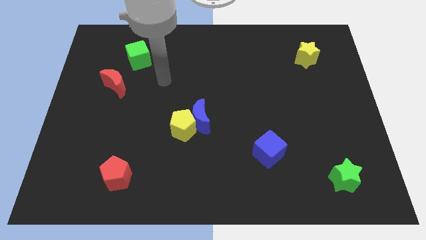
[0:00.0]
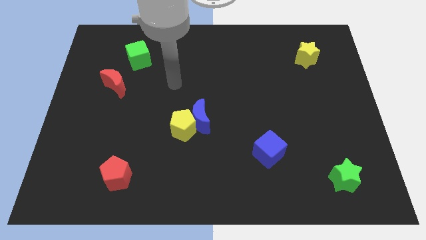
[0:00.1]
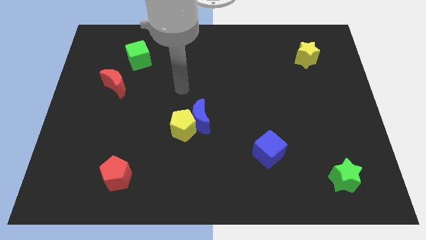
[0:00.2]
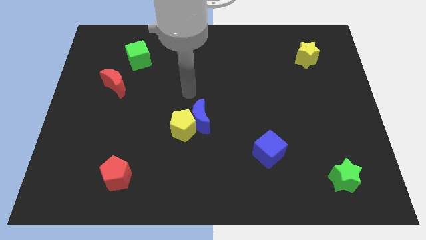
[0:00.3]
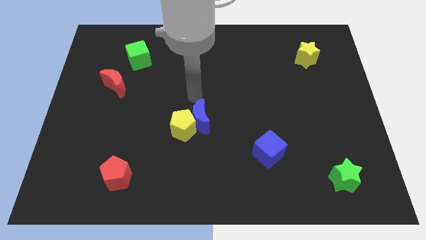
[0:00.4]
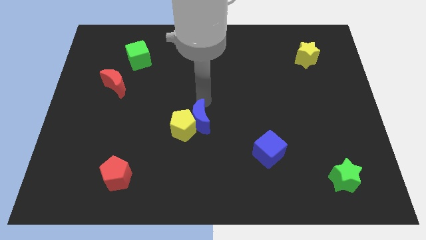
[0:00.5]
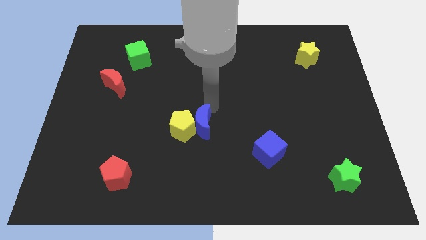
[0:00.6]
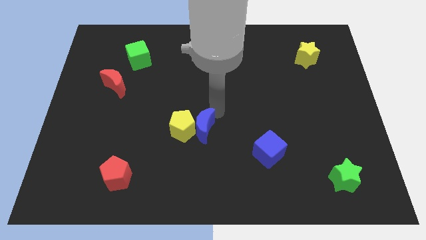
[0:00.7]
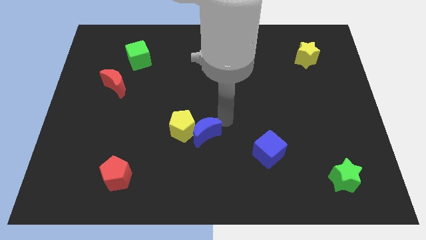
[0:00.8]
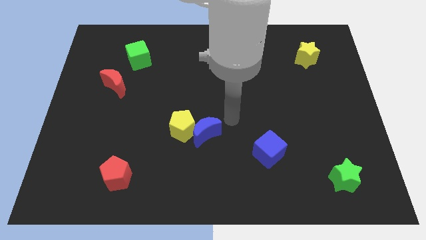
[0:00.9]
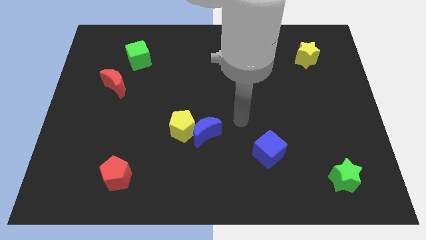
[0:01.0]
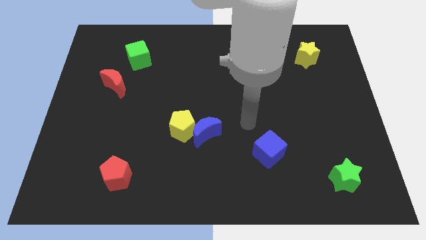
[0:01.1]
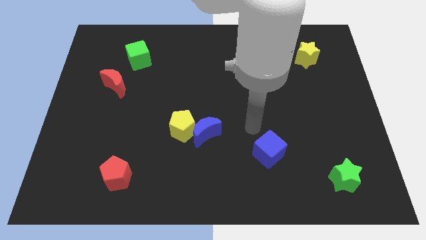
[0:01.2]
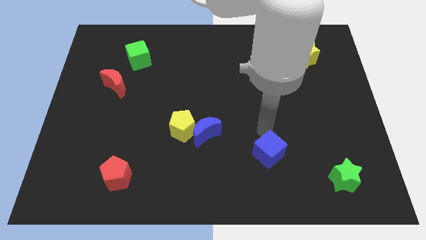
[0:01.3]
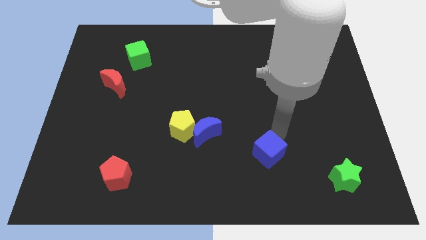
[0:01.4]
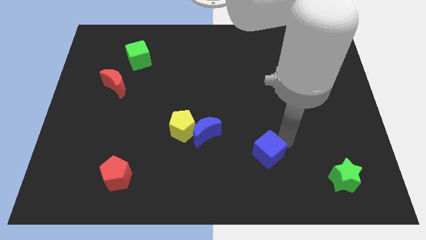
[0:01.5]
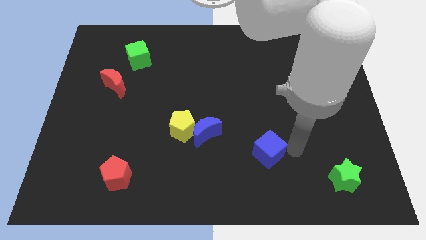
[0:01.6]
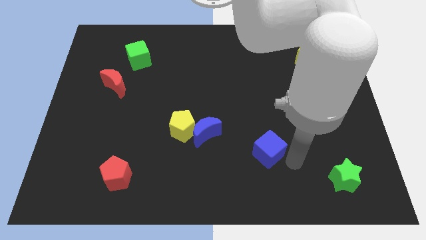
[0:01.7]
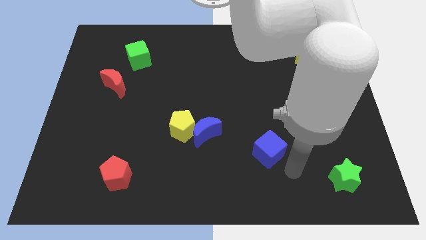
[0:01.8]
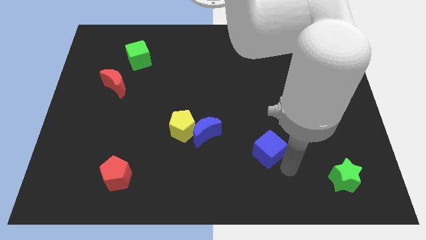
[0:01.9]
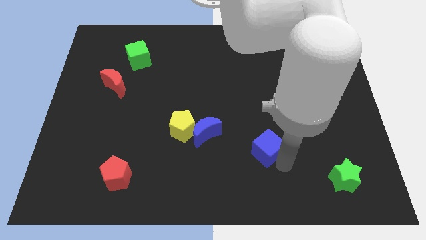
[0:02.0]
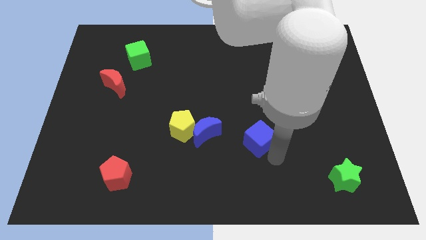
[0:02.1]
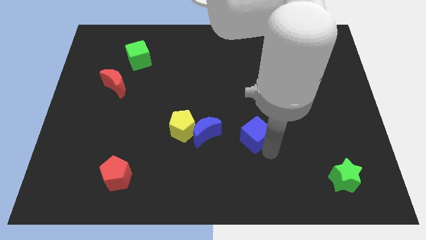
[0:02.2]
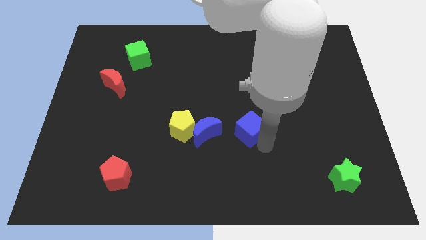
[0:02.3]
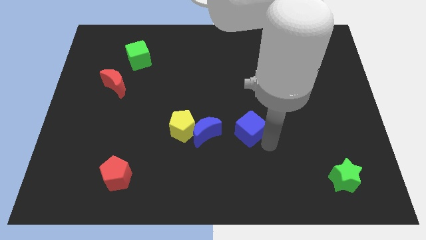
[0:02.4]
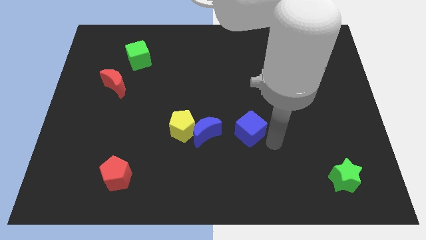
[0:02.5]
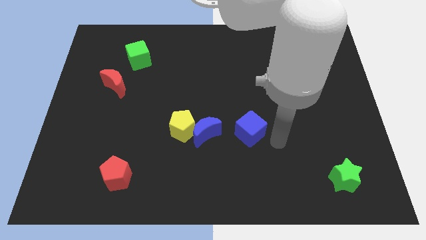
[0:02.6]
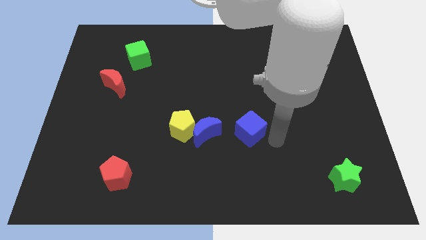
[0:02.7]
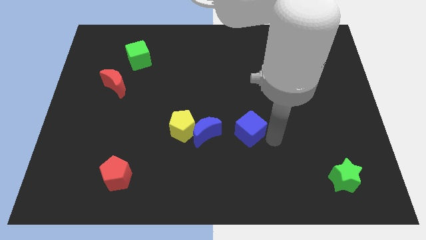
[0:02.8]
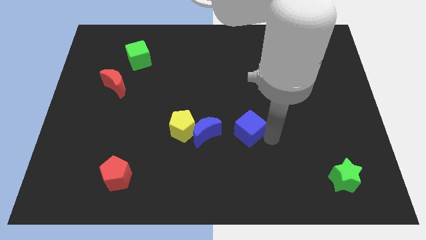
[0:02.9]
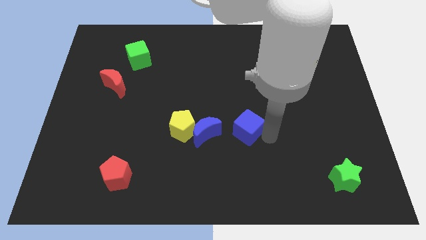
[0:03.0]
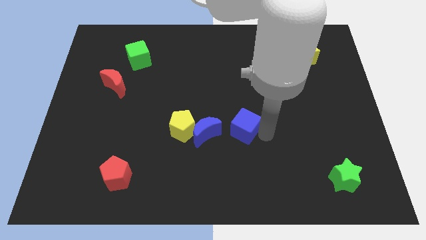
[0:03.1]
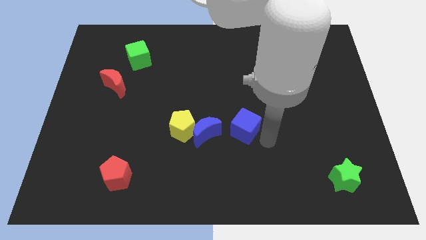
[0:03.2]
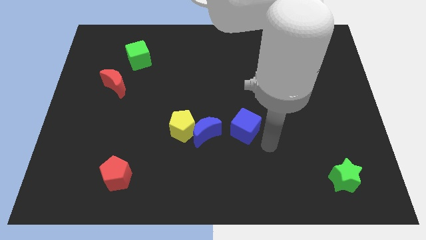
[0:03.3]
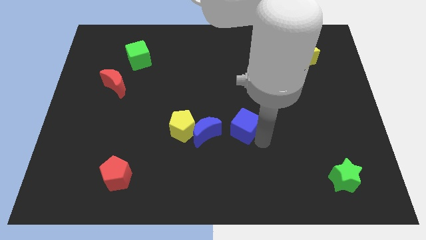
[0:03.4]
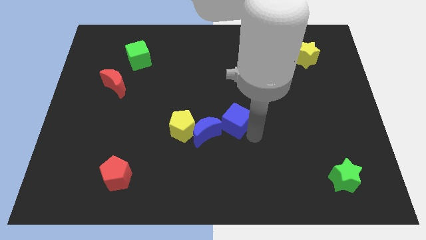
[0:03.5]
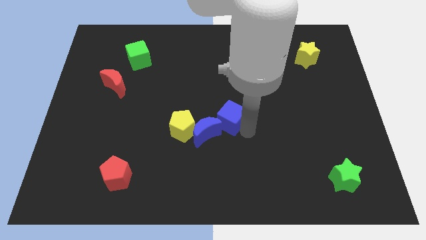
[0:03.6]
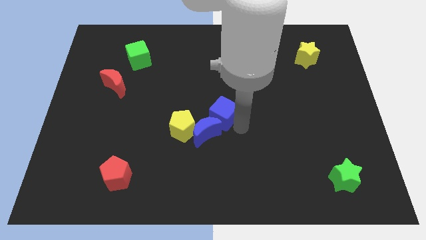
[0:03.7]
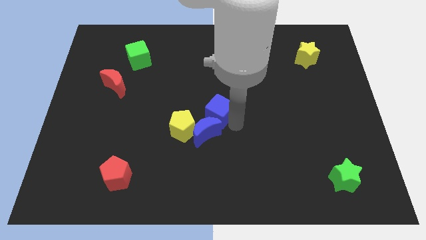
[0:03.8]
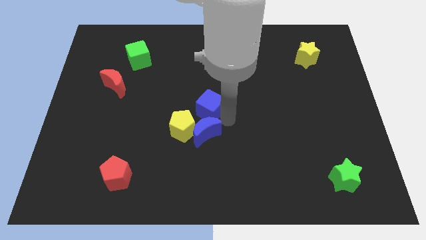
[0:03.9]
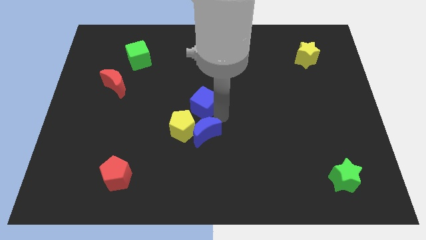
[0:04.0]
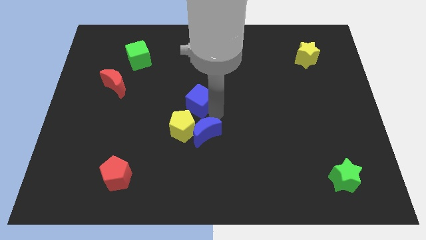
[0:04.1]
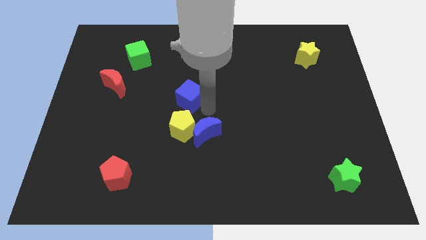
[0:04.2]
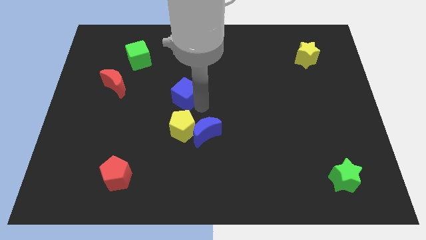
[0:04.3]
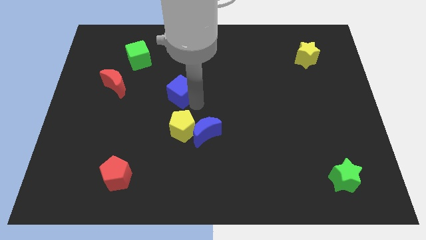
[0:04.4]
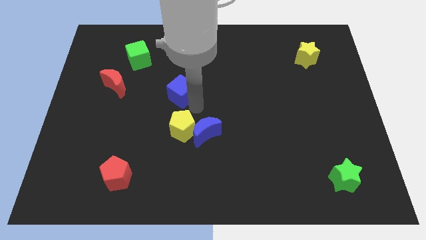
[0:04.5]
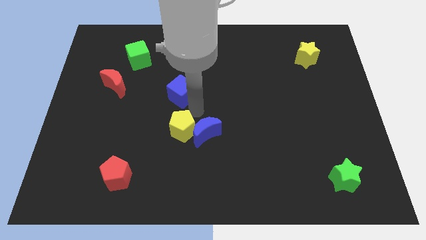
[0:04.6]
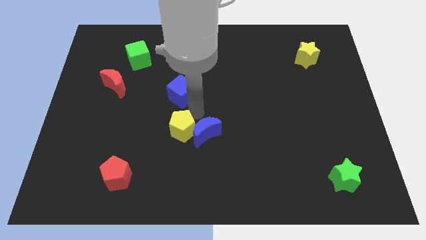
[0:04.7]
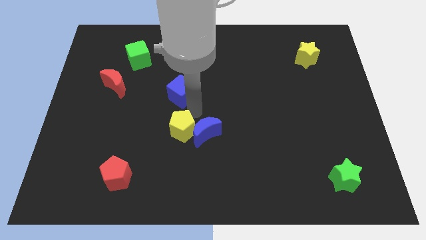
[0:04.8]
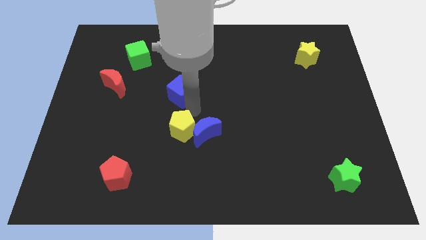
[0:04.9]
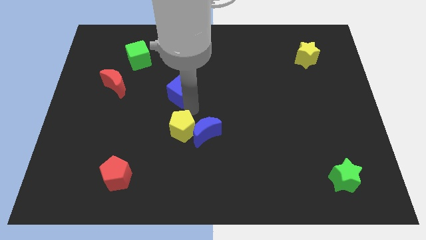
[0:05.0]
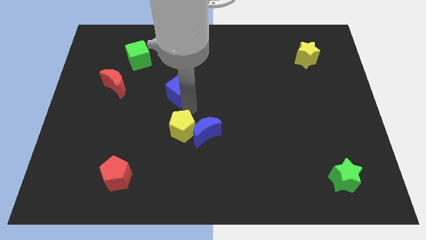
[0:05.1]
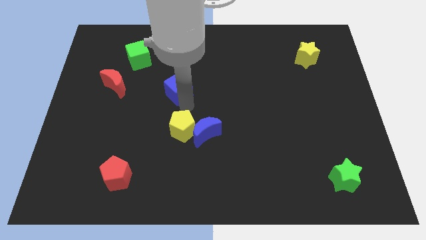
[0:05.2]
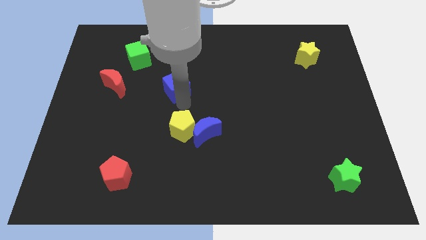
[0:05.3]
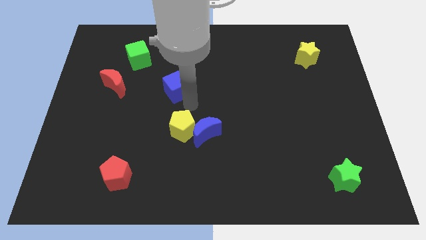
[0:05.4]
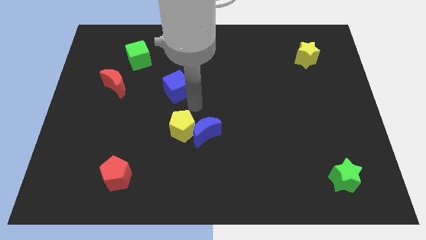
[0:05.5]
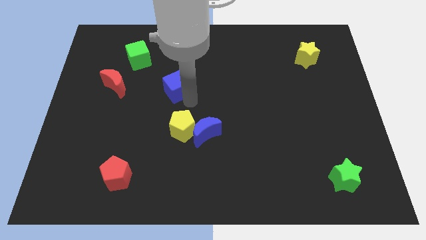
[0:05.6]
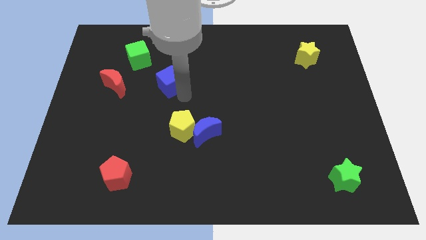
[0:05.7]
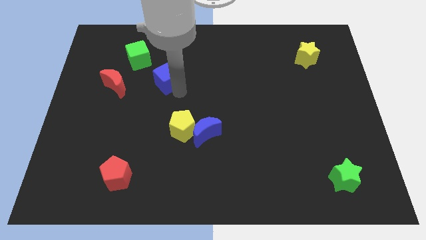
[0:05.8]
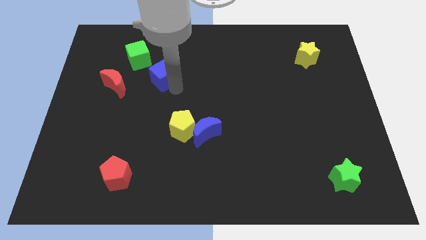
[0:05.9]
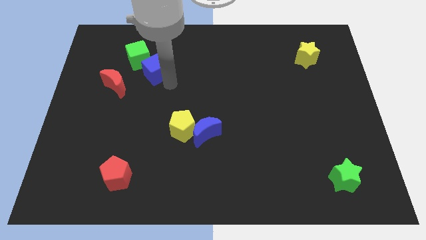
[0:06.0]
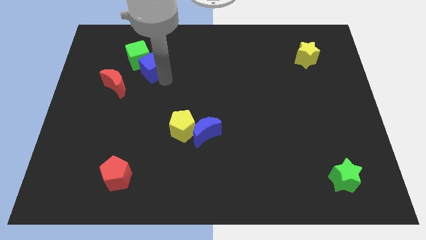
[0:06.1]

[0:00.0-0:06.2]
put the blue cube towards the green cube
